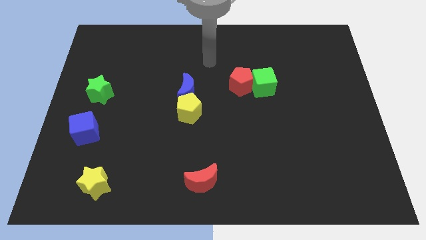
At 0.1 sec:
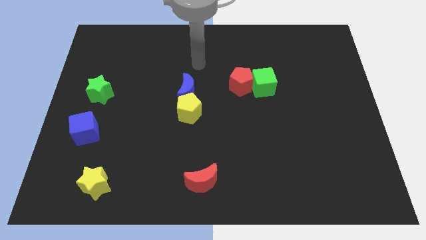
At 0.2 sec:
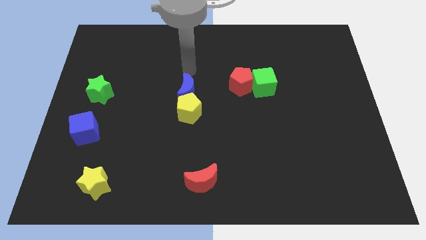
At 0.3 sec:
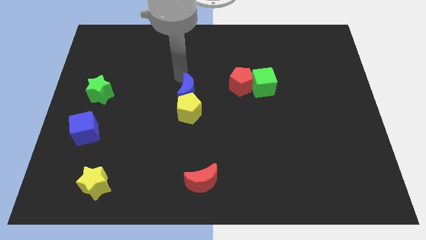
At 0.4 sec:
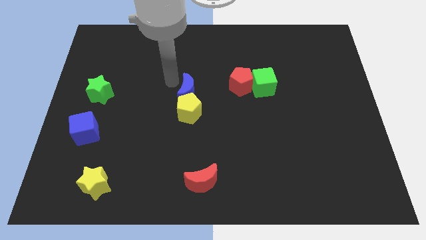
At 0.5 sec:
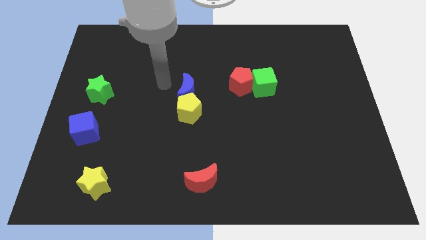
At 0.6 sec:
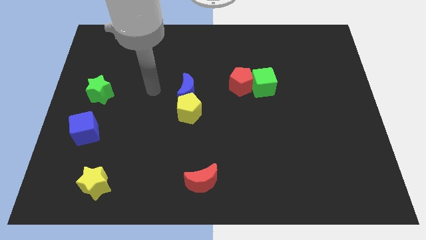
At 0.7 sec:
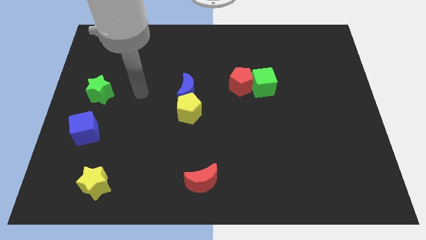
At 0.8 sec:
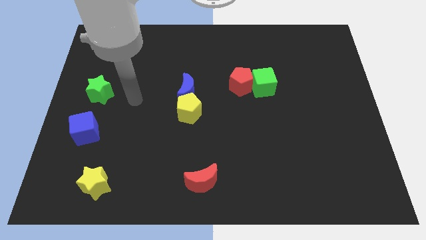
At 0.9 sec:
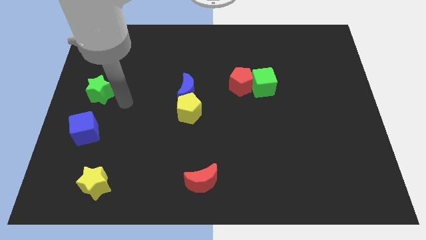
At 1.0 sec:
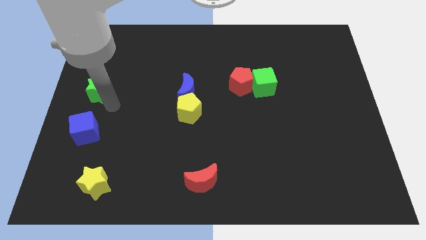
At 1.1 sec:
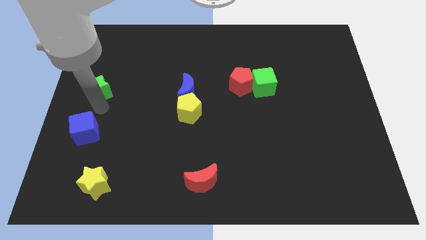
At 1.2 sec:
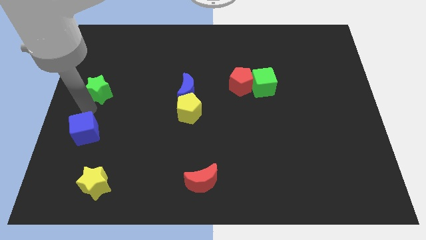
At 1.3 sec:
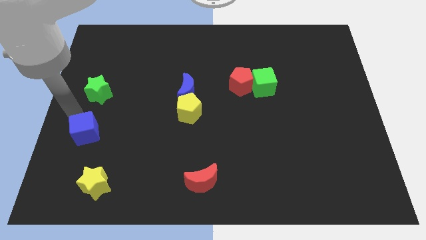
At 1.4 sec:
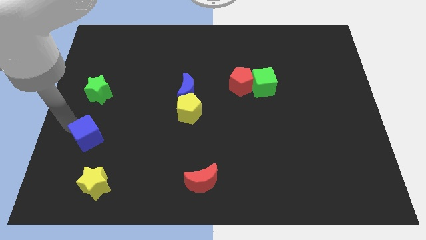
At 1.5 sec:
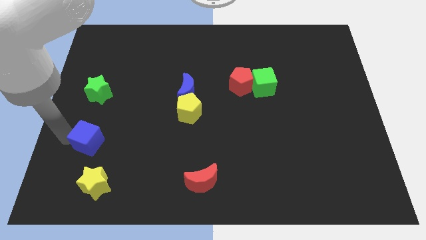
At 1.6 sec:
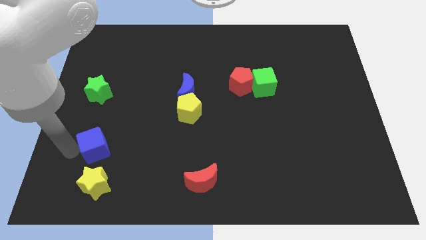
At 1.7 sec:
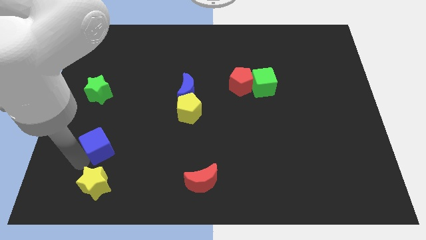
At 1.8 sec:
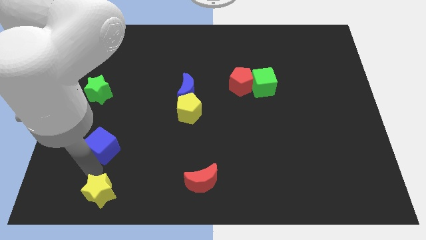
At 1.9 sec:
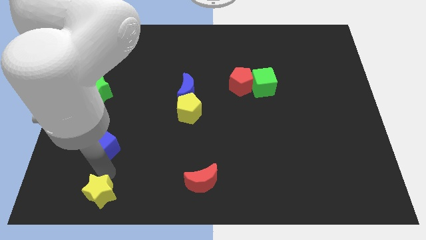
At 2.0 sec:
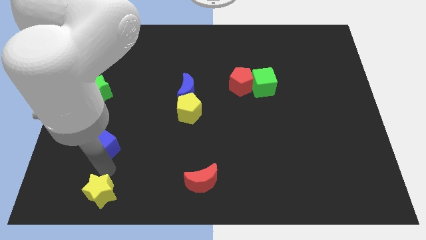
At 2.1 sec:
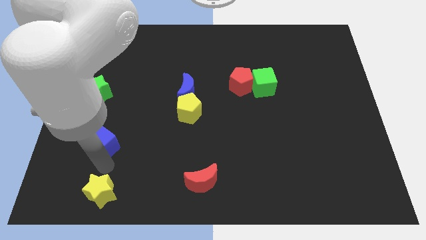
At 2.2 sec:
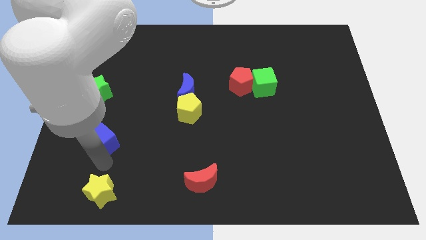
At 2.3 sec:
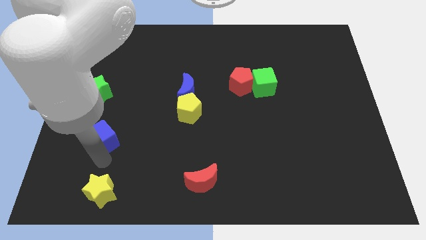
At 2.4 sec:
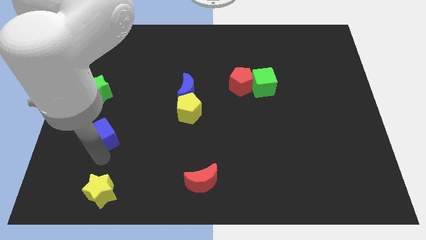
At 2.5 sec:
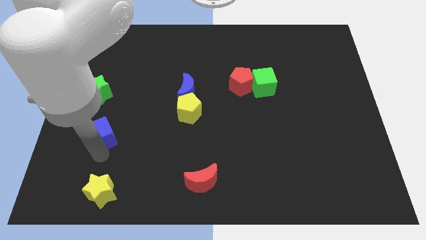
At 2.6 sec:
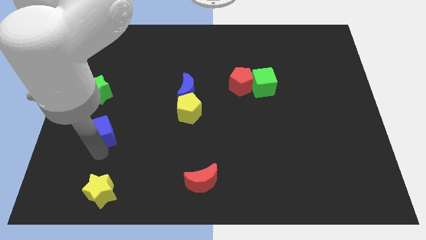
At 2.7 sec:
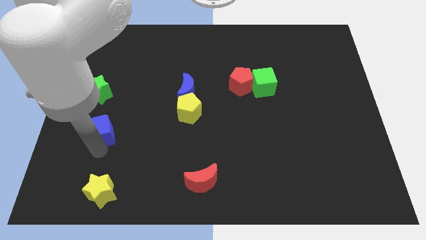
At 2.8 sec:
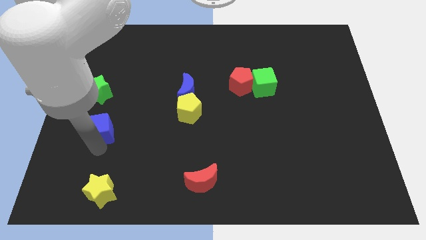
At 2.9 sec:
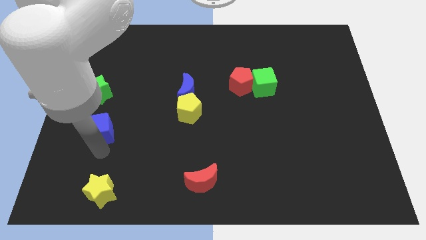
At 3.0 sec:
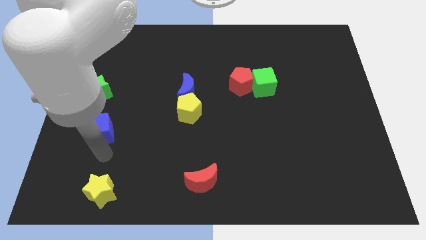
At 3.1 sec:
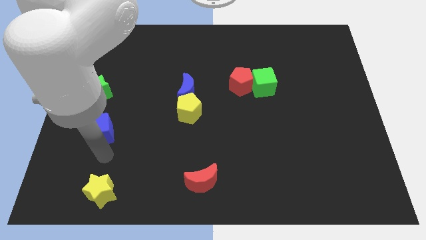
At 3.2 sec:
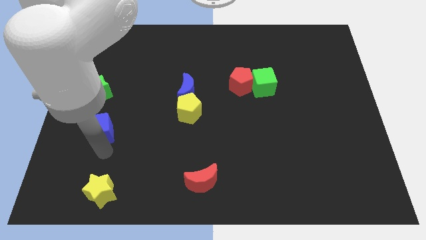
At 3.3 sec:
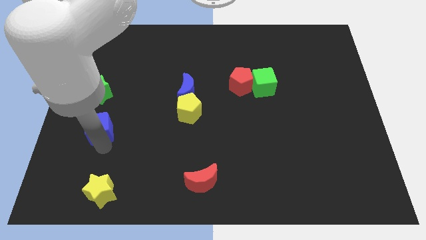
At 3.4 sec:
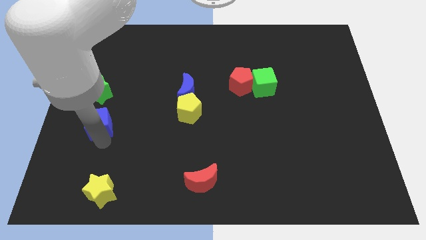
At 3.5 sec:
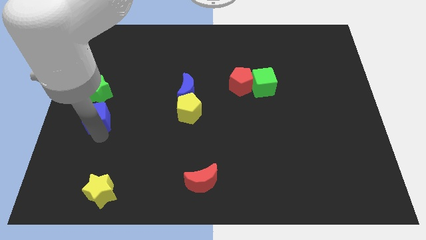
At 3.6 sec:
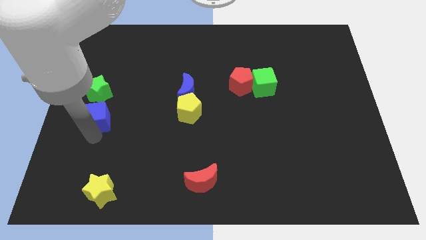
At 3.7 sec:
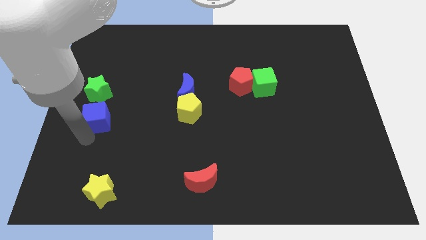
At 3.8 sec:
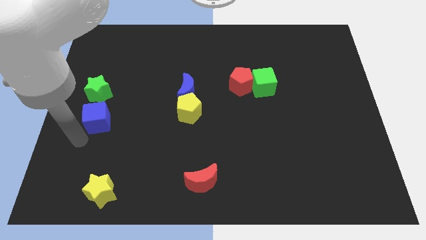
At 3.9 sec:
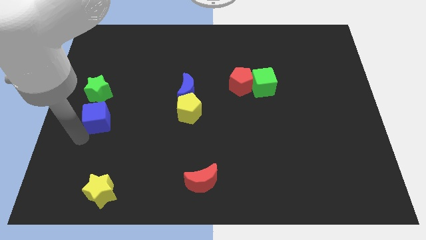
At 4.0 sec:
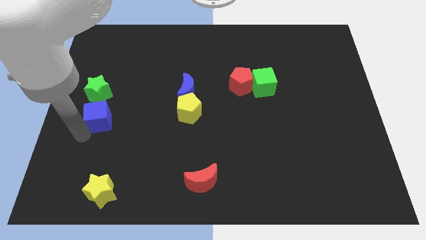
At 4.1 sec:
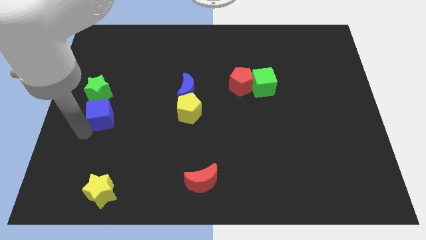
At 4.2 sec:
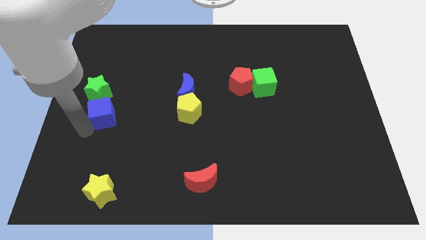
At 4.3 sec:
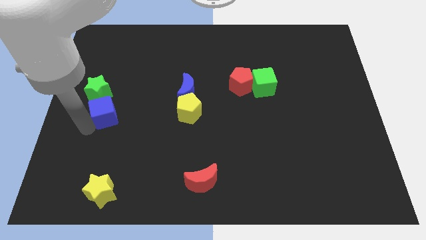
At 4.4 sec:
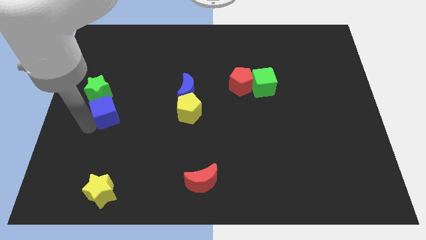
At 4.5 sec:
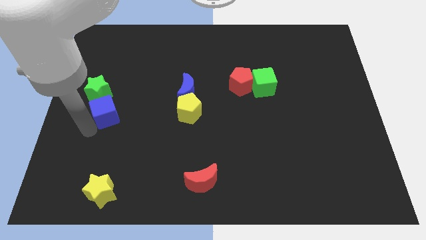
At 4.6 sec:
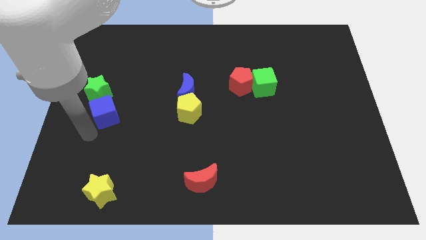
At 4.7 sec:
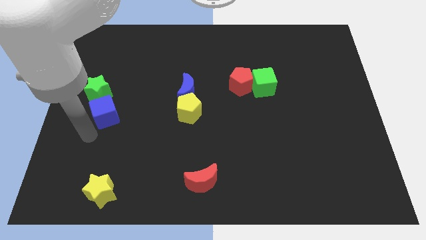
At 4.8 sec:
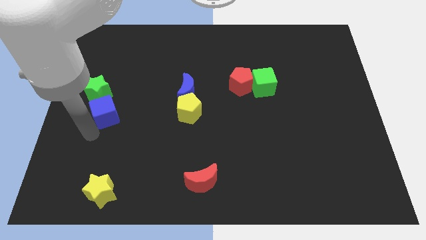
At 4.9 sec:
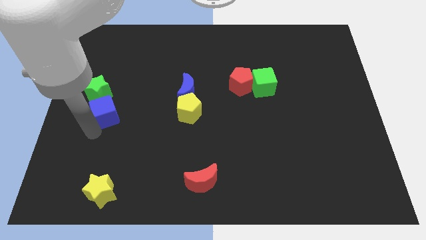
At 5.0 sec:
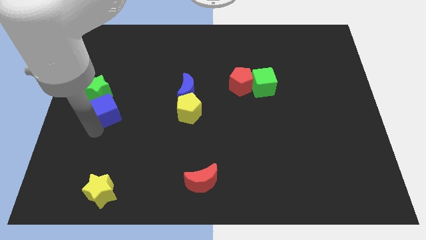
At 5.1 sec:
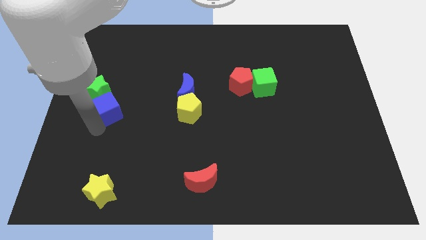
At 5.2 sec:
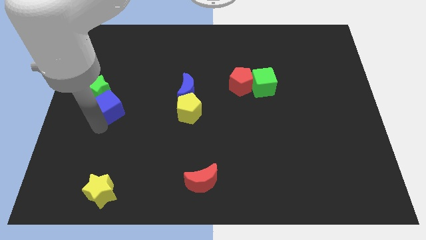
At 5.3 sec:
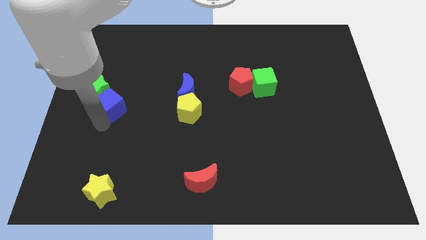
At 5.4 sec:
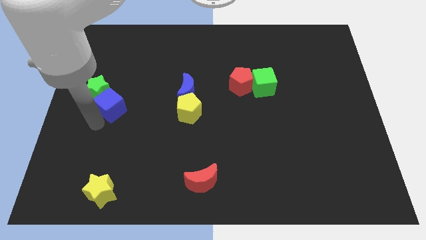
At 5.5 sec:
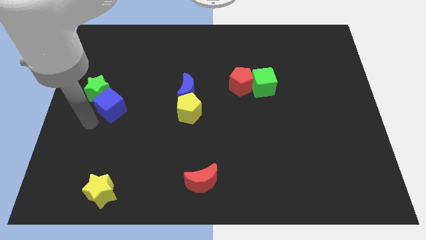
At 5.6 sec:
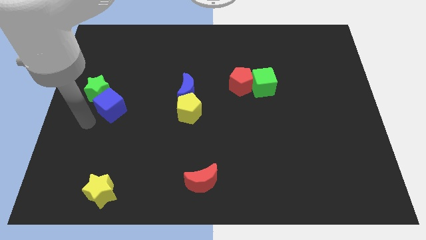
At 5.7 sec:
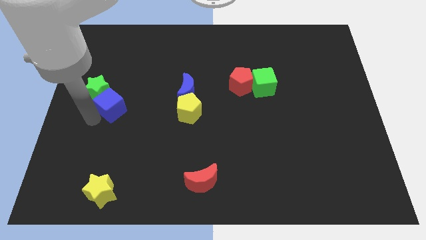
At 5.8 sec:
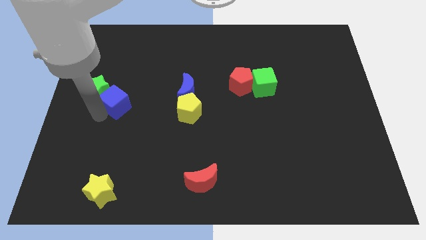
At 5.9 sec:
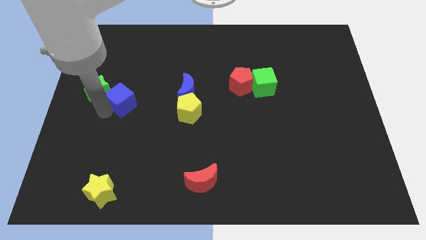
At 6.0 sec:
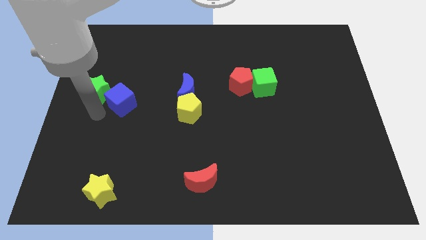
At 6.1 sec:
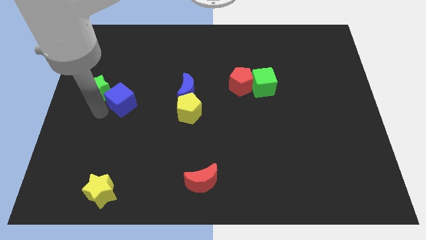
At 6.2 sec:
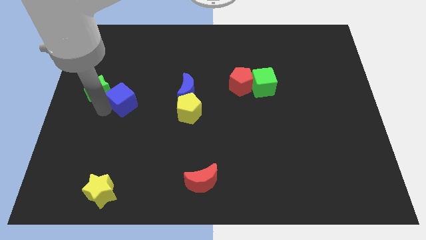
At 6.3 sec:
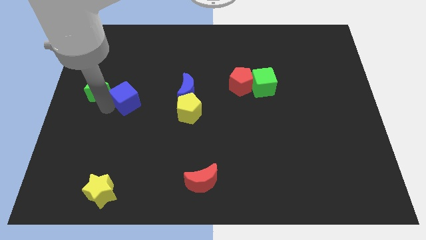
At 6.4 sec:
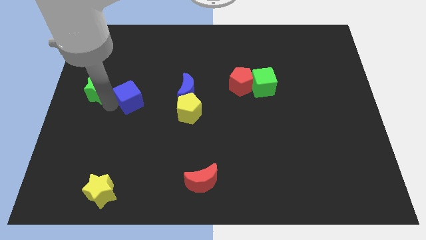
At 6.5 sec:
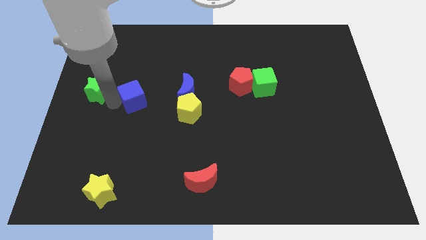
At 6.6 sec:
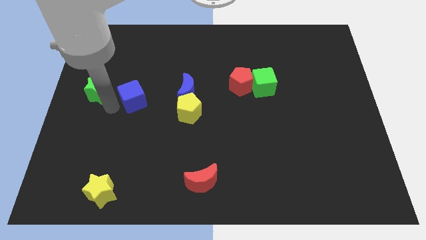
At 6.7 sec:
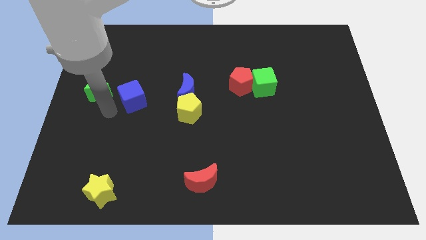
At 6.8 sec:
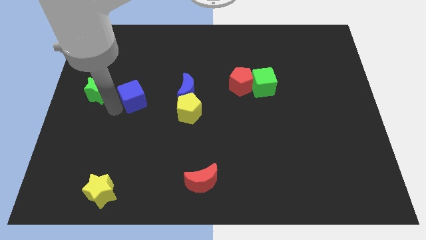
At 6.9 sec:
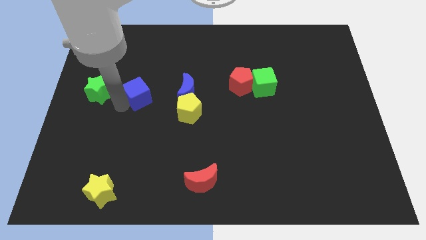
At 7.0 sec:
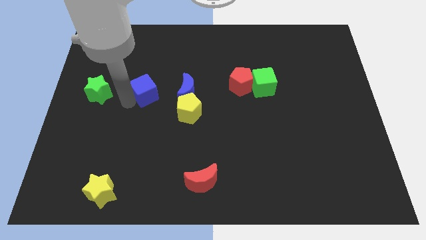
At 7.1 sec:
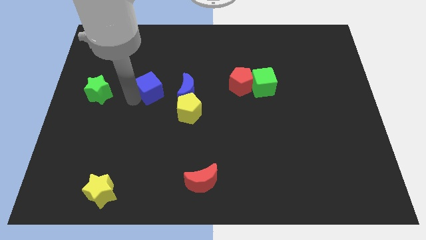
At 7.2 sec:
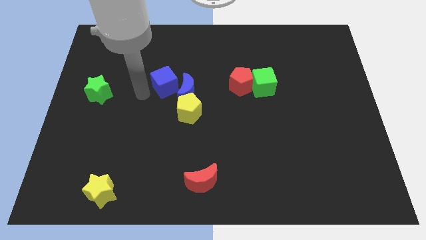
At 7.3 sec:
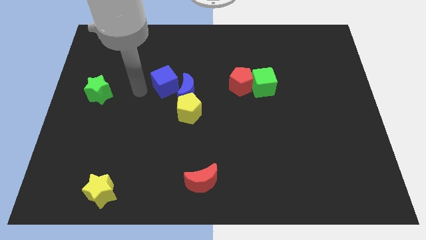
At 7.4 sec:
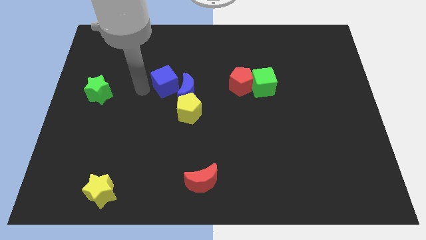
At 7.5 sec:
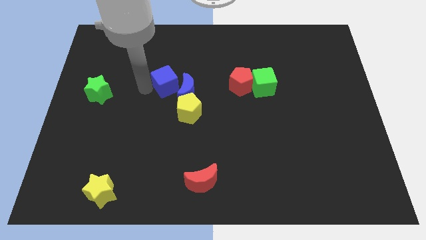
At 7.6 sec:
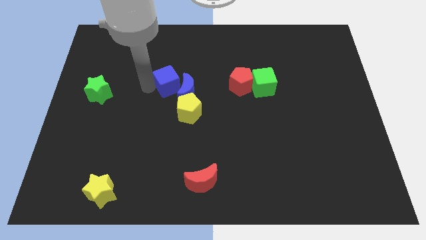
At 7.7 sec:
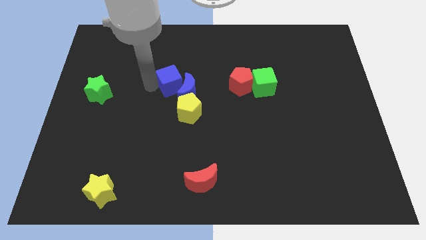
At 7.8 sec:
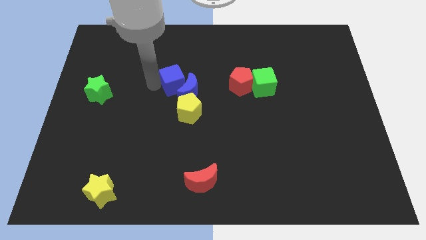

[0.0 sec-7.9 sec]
put the blue cube to the top side of the yellow pentagon
